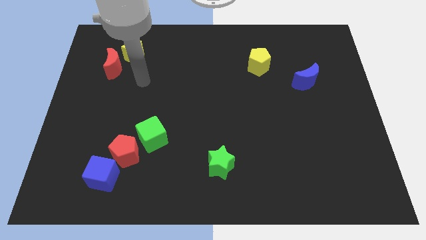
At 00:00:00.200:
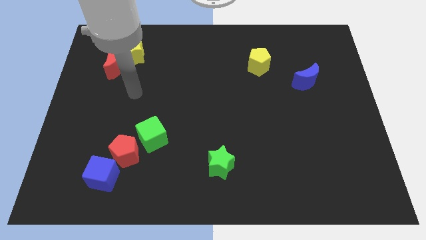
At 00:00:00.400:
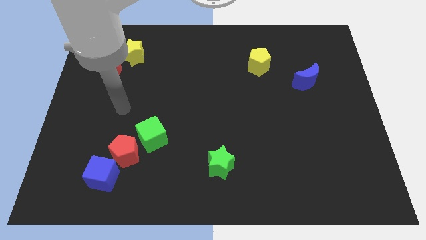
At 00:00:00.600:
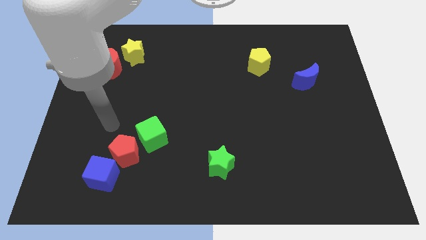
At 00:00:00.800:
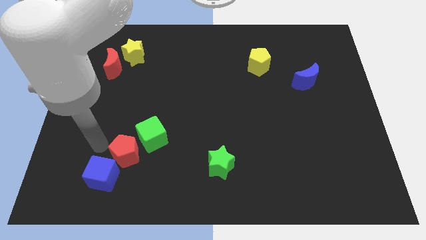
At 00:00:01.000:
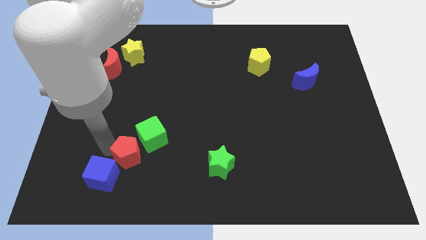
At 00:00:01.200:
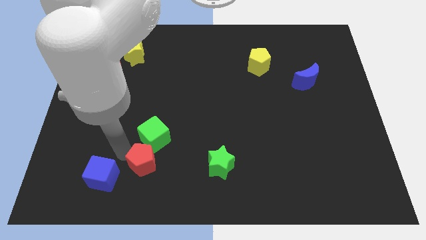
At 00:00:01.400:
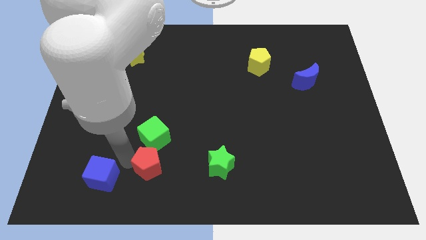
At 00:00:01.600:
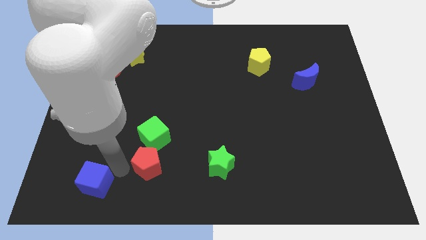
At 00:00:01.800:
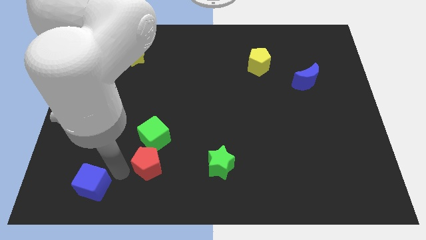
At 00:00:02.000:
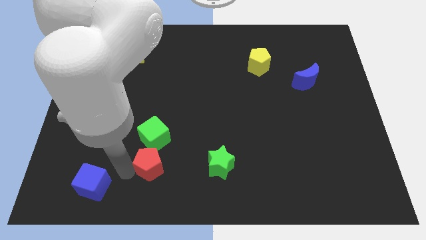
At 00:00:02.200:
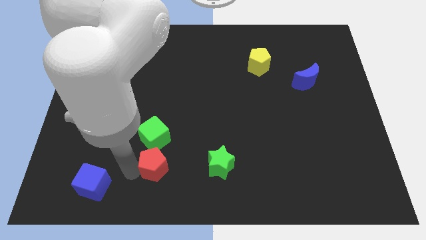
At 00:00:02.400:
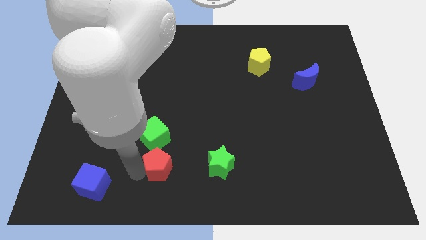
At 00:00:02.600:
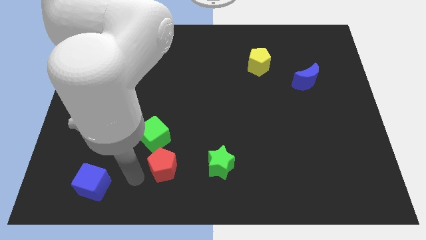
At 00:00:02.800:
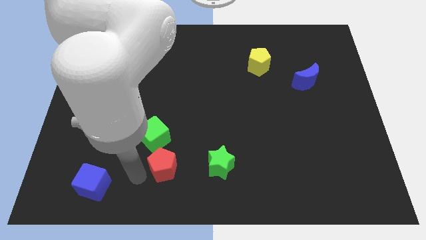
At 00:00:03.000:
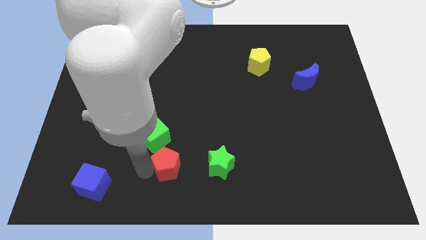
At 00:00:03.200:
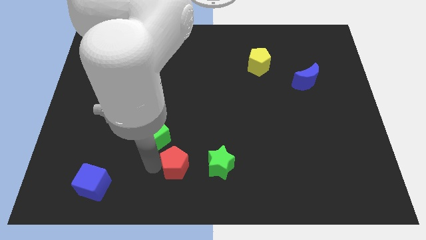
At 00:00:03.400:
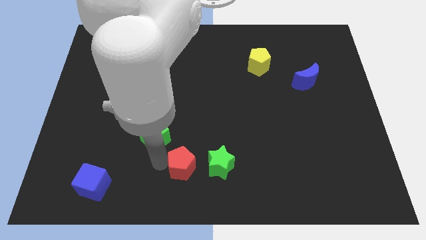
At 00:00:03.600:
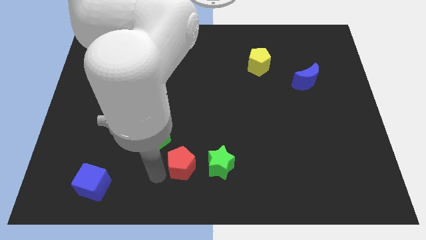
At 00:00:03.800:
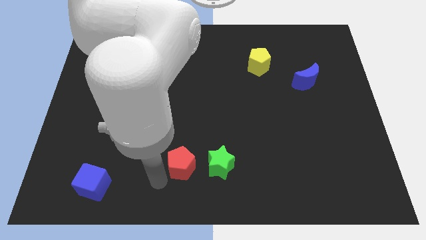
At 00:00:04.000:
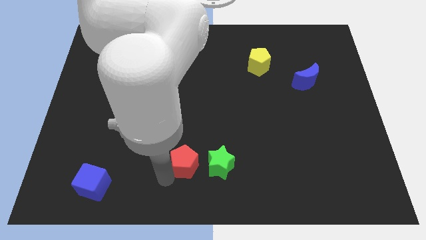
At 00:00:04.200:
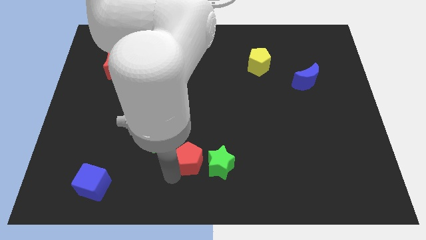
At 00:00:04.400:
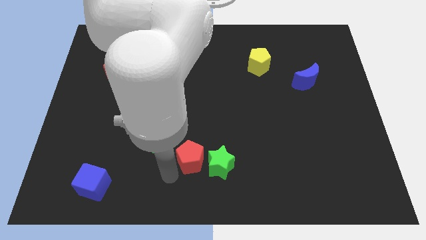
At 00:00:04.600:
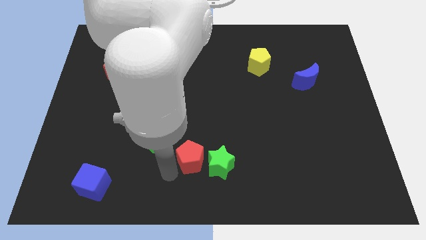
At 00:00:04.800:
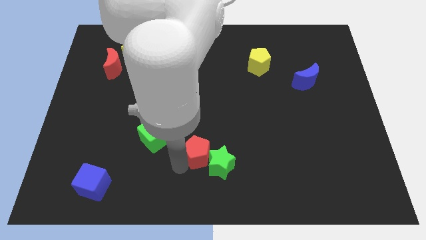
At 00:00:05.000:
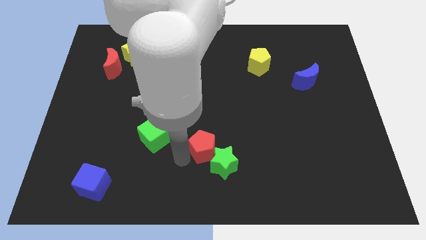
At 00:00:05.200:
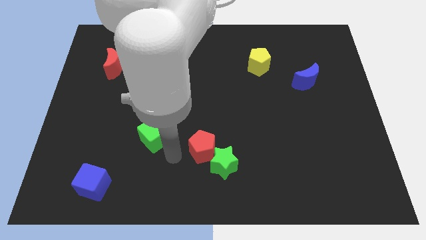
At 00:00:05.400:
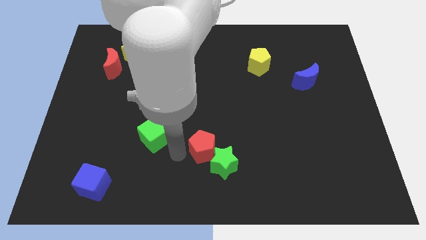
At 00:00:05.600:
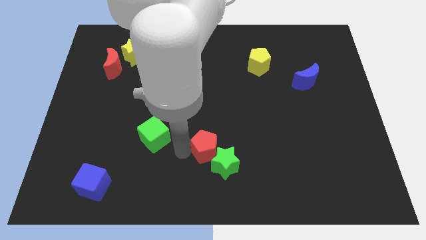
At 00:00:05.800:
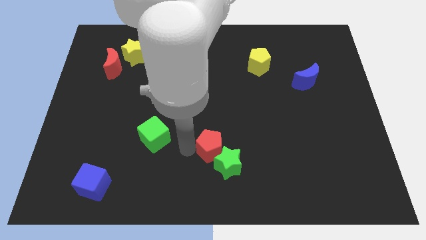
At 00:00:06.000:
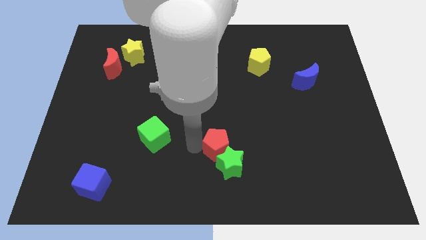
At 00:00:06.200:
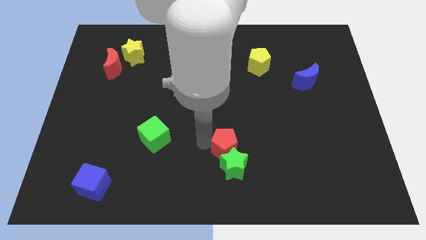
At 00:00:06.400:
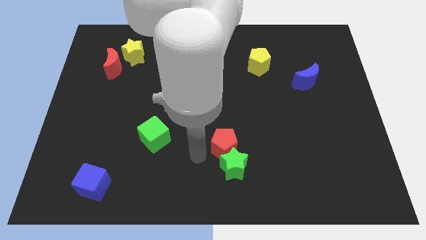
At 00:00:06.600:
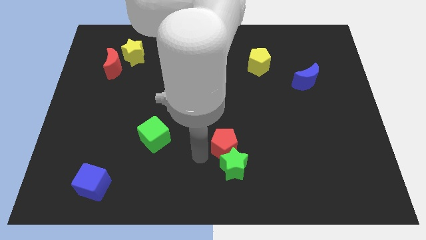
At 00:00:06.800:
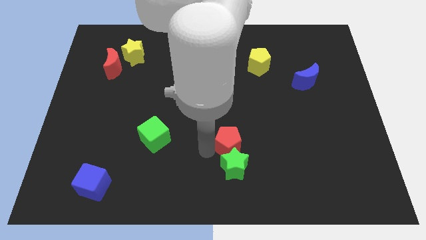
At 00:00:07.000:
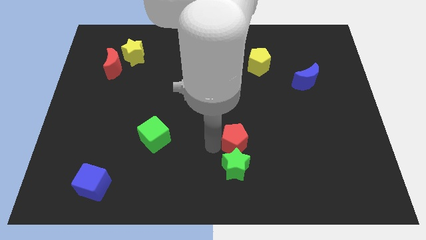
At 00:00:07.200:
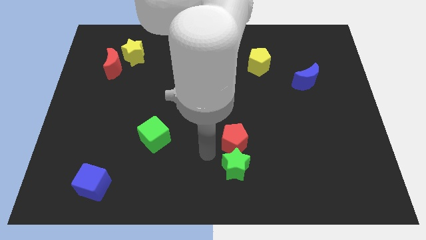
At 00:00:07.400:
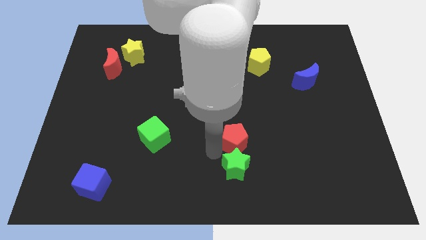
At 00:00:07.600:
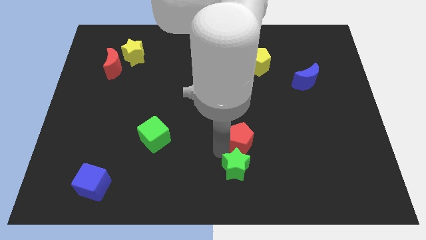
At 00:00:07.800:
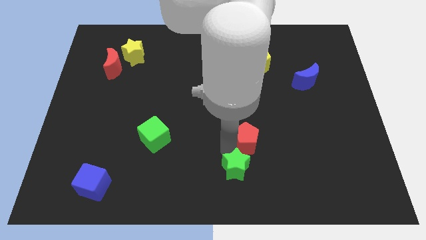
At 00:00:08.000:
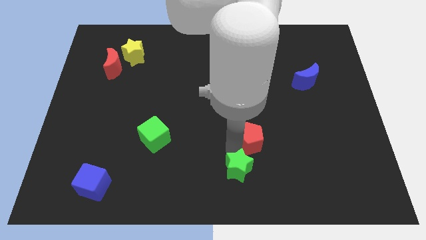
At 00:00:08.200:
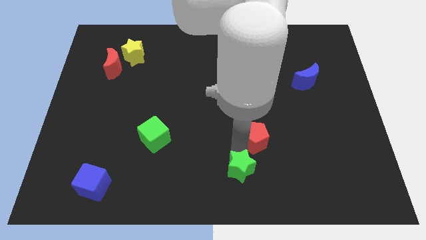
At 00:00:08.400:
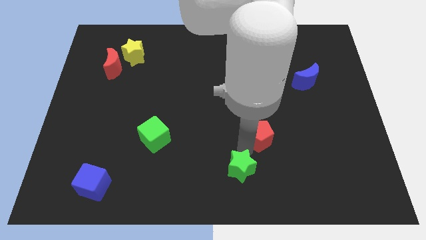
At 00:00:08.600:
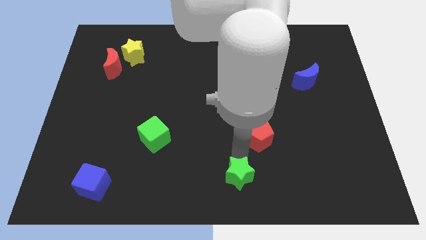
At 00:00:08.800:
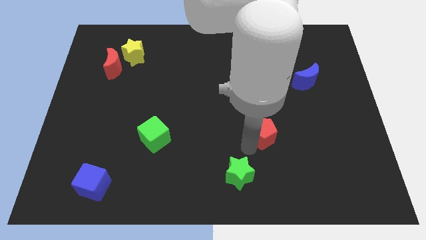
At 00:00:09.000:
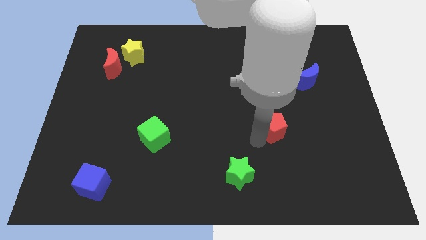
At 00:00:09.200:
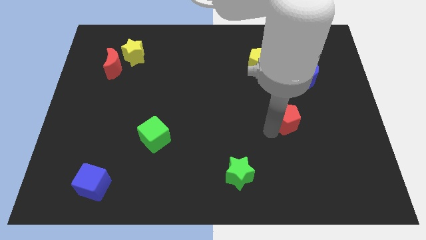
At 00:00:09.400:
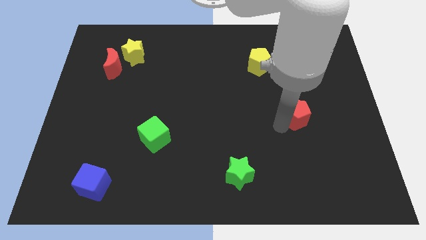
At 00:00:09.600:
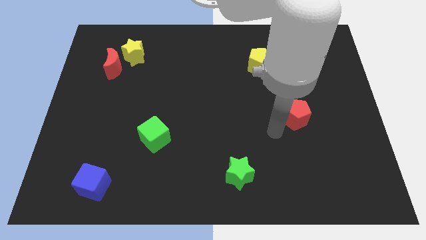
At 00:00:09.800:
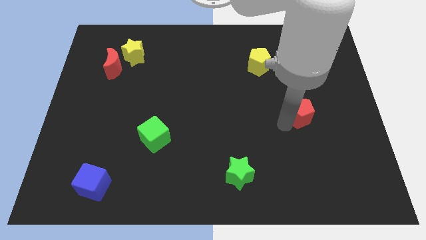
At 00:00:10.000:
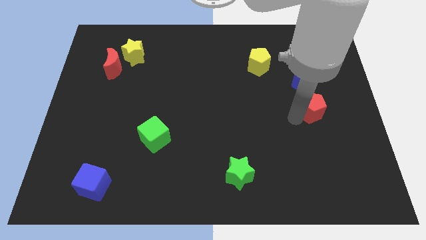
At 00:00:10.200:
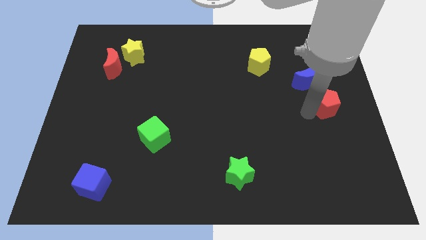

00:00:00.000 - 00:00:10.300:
slide the red pentagon diagonally down and to the right of the blue moon

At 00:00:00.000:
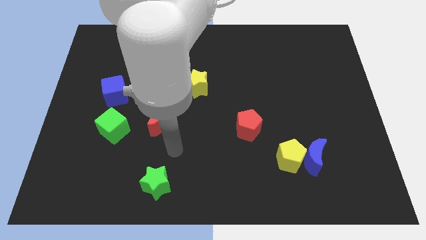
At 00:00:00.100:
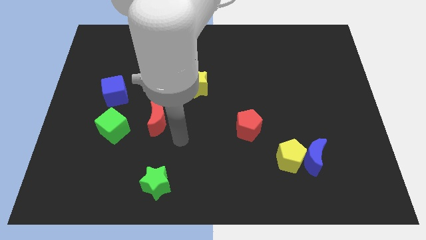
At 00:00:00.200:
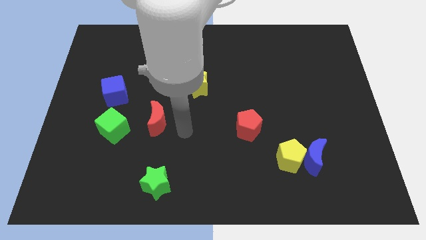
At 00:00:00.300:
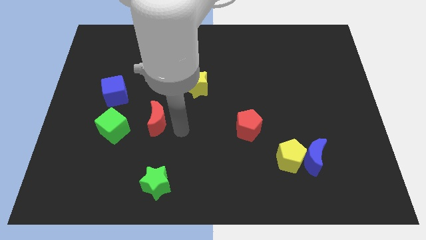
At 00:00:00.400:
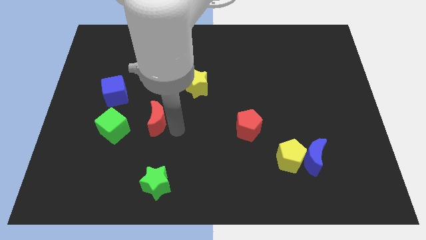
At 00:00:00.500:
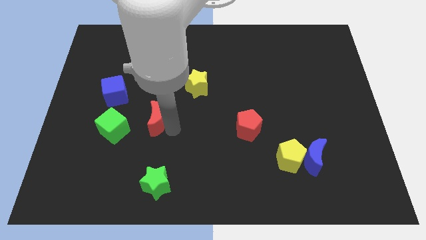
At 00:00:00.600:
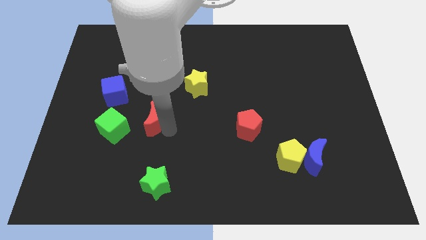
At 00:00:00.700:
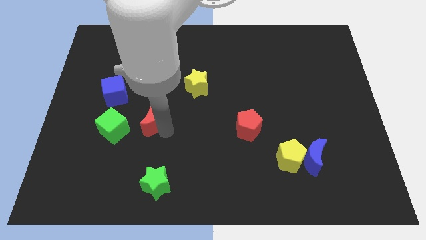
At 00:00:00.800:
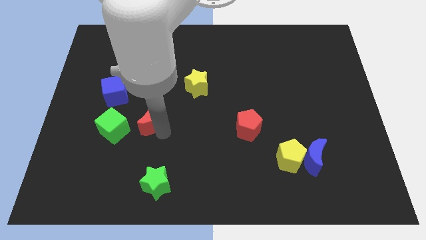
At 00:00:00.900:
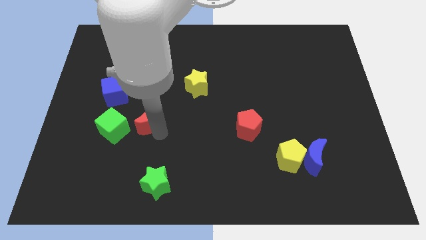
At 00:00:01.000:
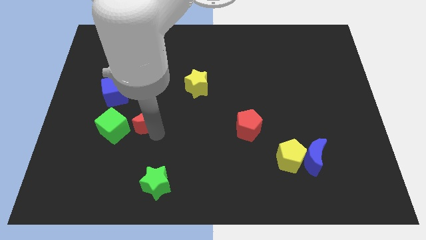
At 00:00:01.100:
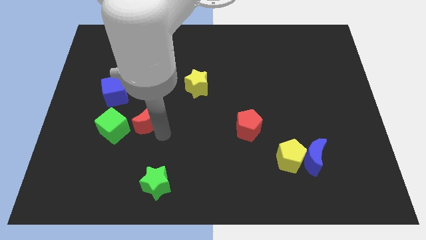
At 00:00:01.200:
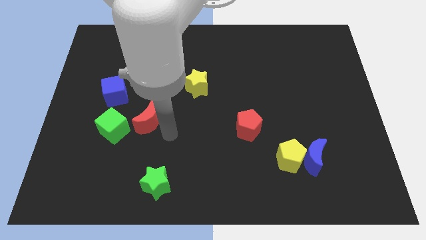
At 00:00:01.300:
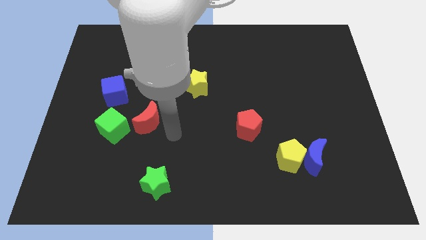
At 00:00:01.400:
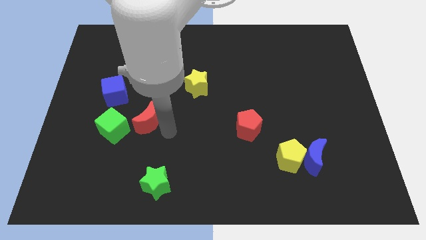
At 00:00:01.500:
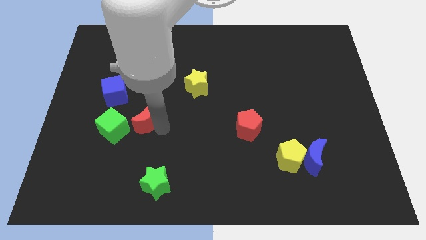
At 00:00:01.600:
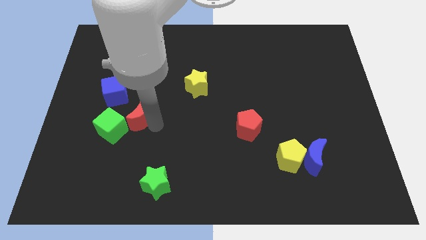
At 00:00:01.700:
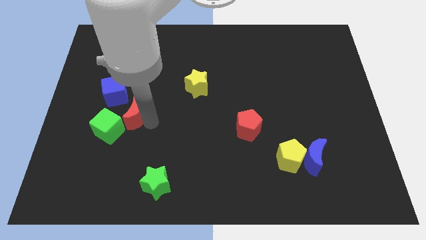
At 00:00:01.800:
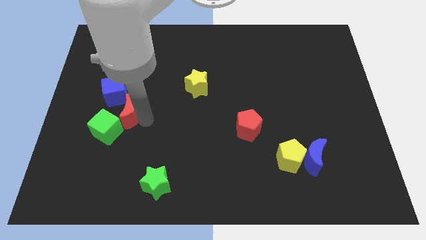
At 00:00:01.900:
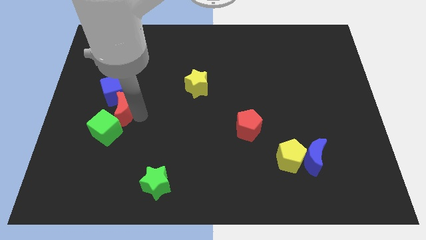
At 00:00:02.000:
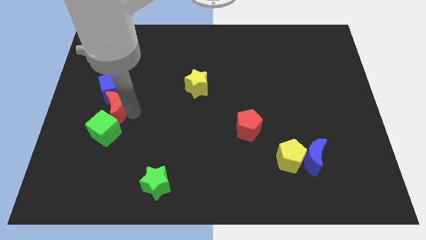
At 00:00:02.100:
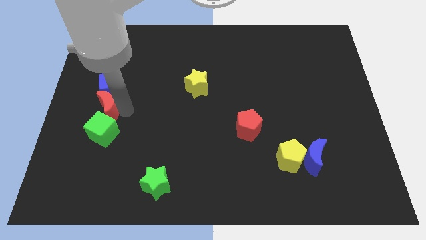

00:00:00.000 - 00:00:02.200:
push the red moon to the bottom left of the blue cube

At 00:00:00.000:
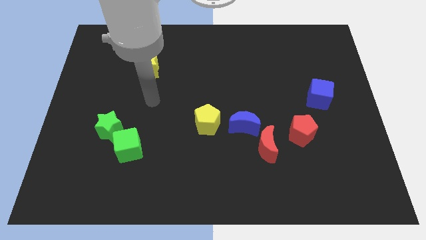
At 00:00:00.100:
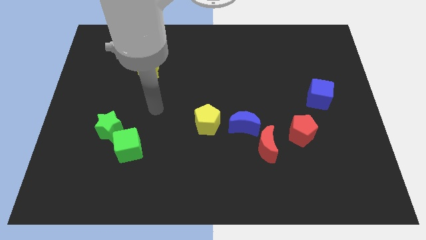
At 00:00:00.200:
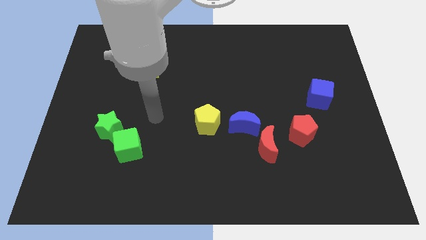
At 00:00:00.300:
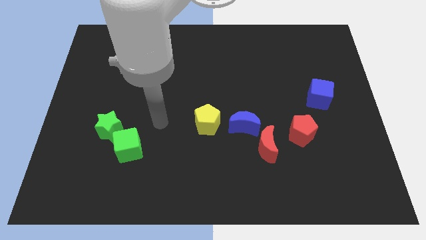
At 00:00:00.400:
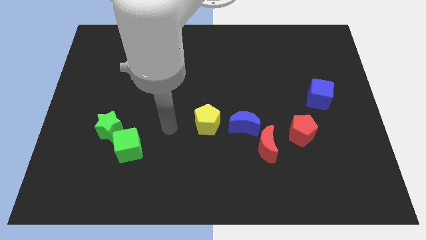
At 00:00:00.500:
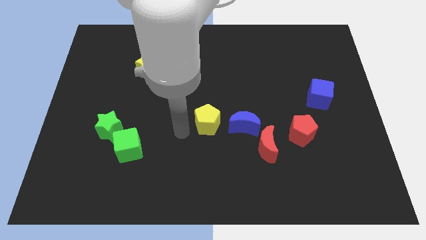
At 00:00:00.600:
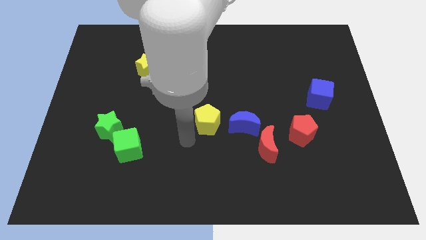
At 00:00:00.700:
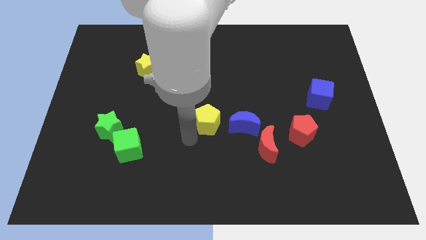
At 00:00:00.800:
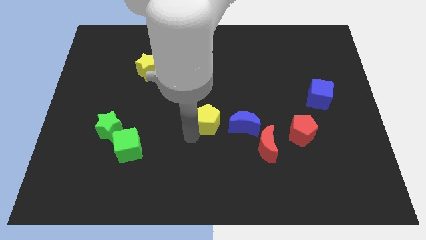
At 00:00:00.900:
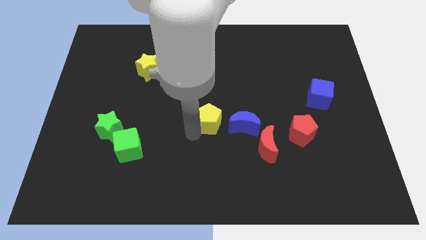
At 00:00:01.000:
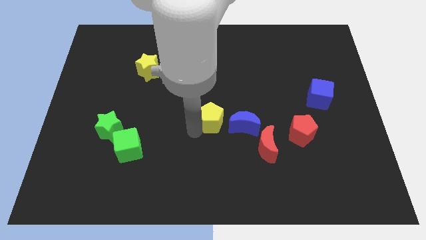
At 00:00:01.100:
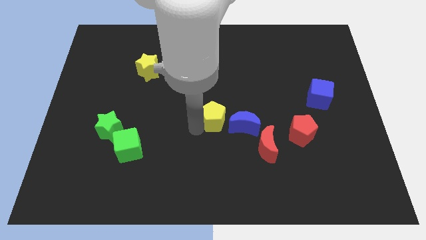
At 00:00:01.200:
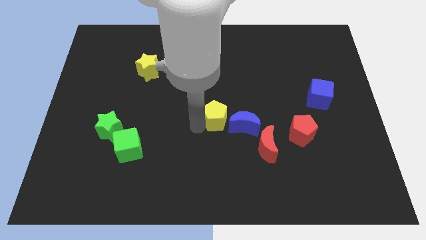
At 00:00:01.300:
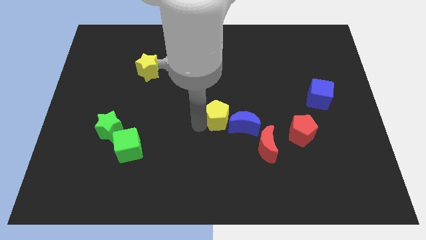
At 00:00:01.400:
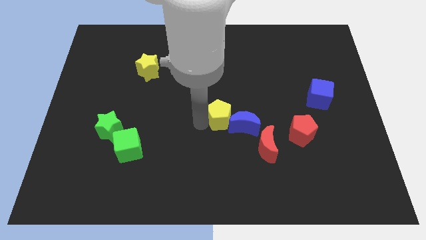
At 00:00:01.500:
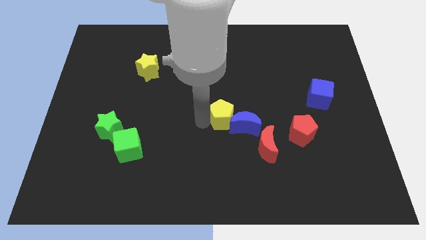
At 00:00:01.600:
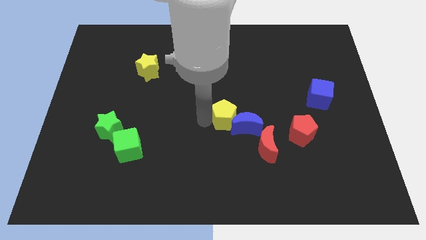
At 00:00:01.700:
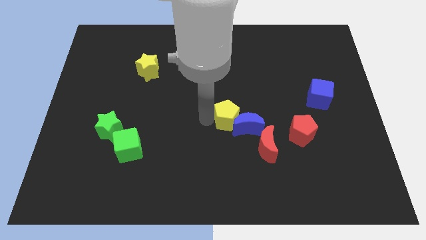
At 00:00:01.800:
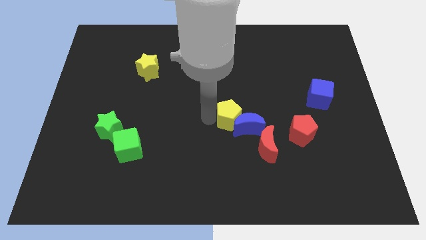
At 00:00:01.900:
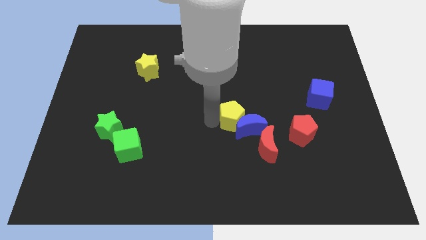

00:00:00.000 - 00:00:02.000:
move the yellow pentagon to the top of the blue moon
